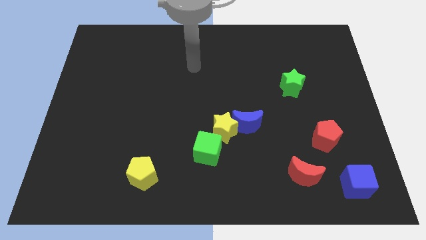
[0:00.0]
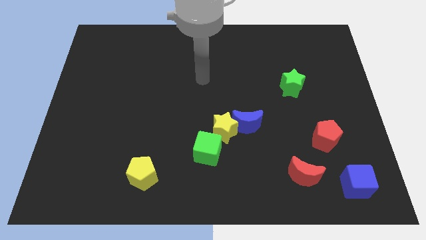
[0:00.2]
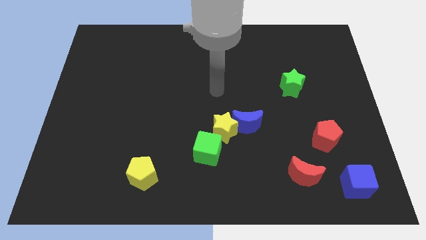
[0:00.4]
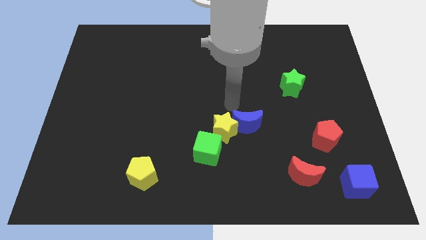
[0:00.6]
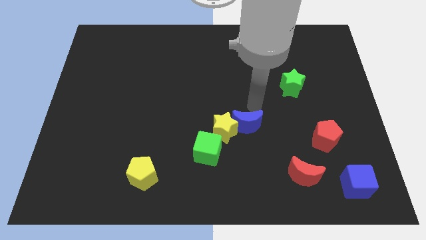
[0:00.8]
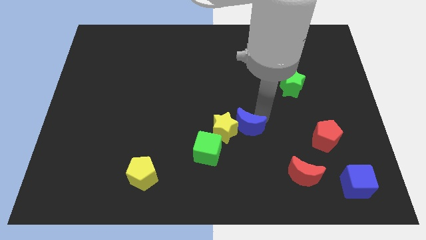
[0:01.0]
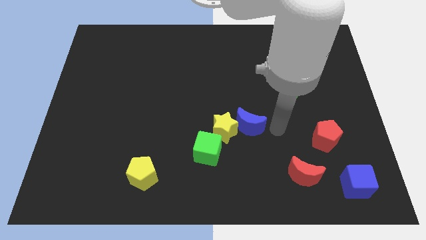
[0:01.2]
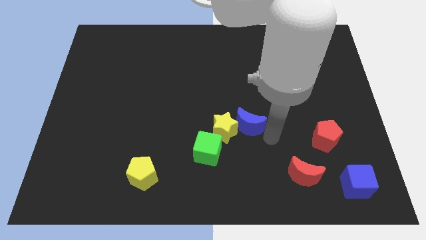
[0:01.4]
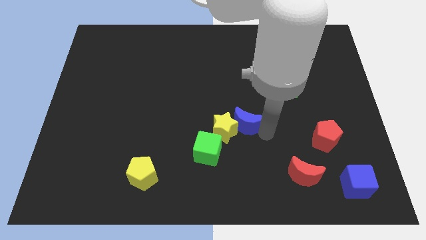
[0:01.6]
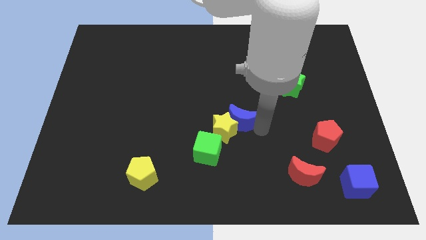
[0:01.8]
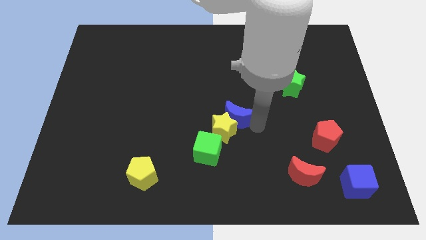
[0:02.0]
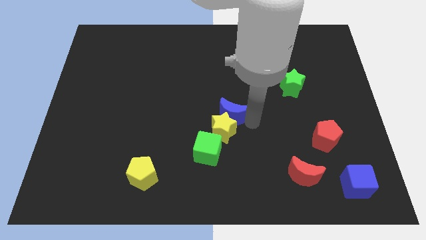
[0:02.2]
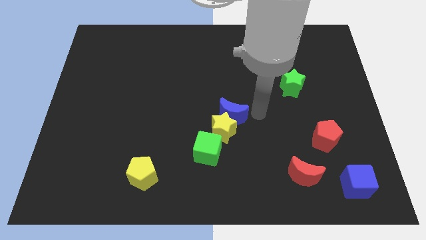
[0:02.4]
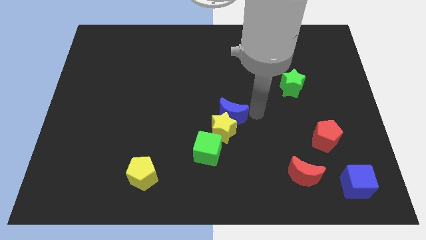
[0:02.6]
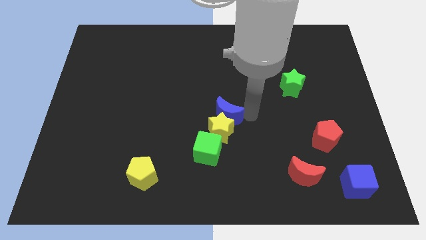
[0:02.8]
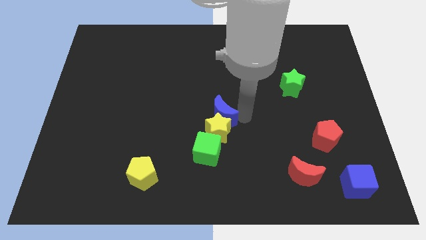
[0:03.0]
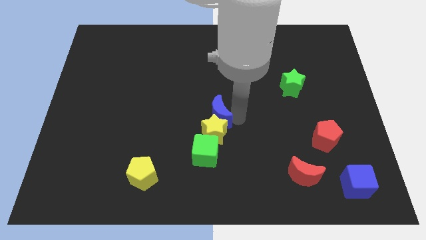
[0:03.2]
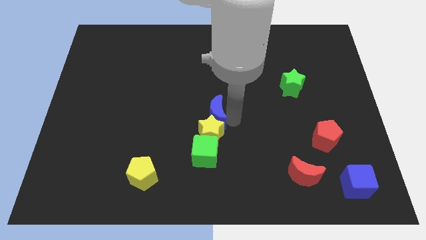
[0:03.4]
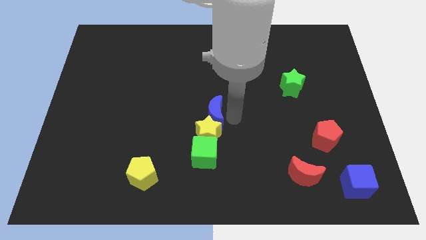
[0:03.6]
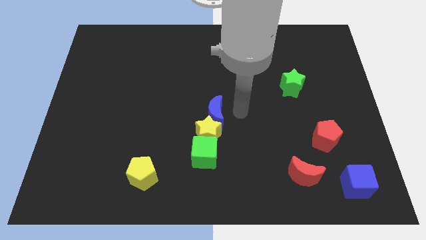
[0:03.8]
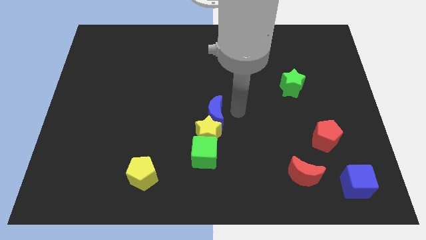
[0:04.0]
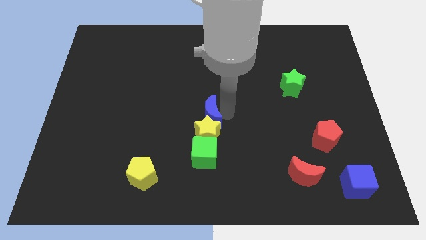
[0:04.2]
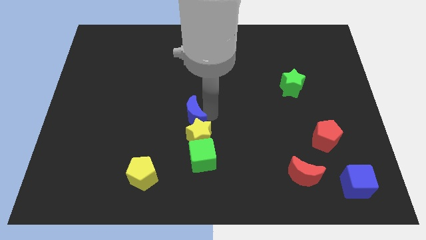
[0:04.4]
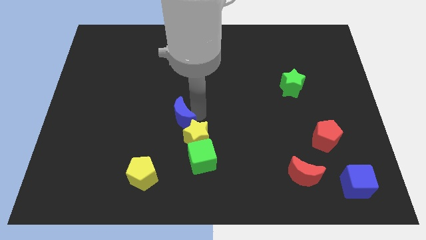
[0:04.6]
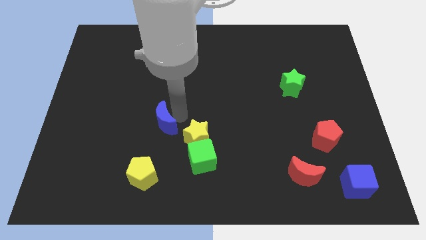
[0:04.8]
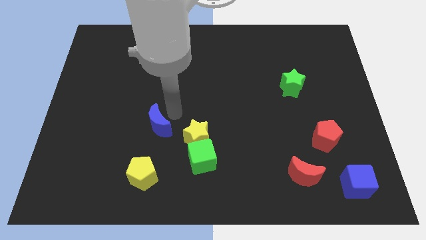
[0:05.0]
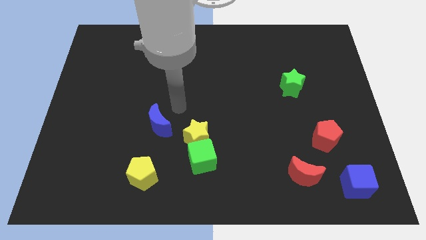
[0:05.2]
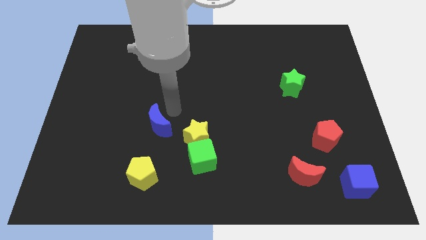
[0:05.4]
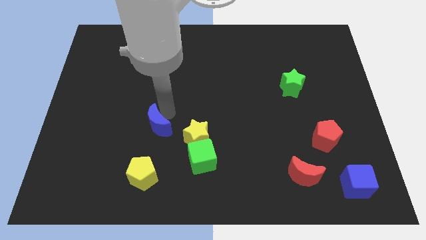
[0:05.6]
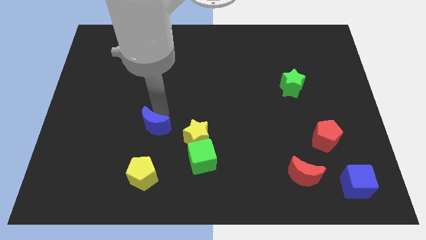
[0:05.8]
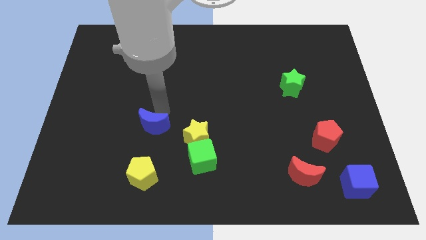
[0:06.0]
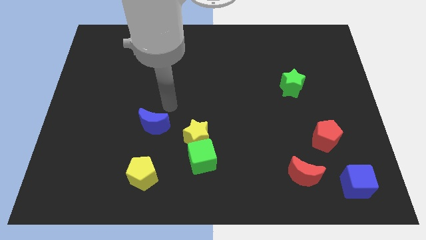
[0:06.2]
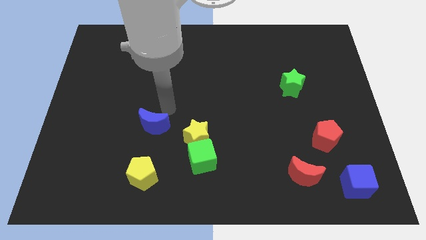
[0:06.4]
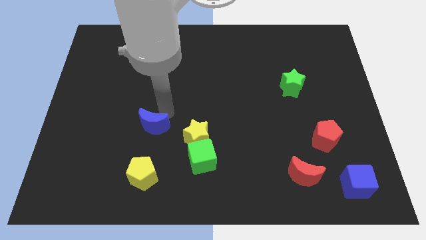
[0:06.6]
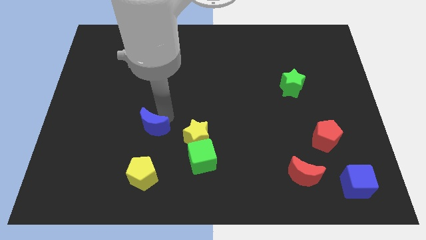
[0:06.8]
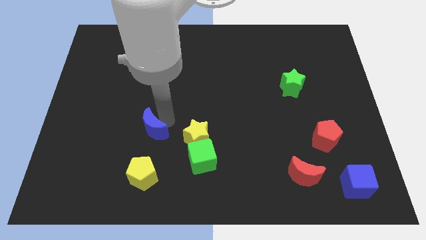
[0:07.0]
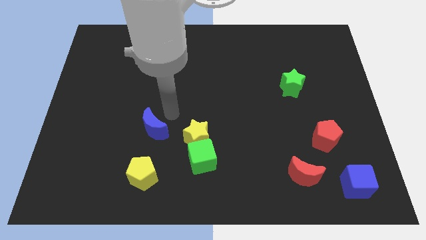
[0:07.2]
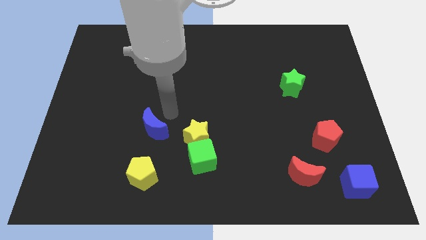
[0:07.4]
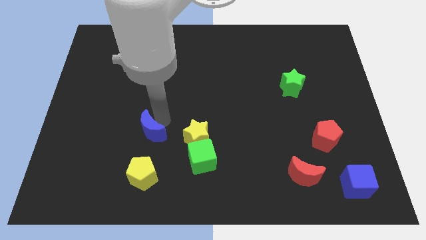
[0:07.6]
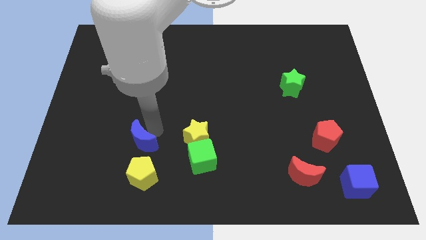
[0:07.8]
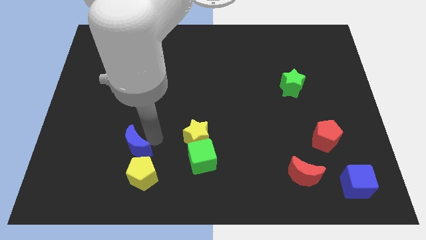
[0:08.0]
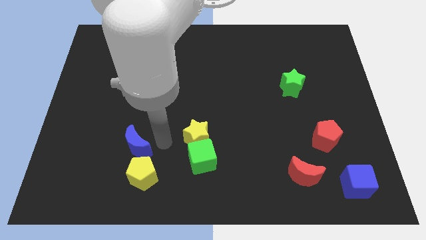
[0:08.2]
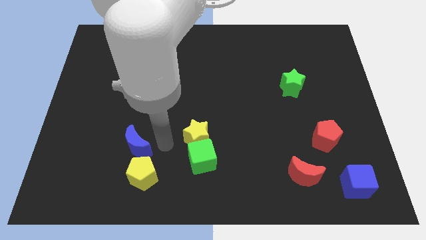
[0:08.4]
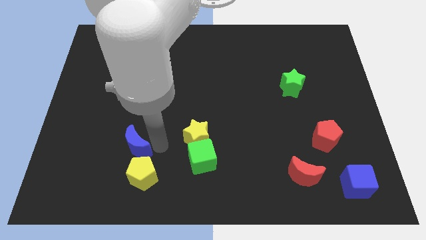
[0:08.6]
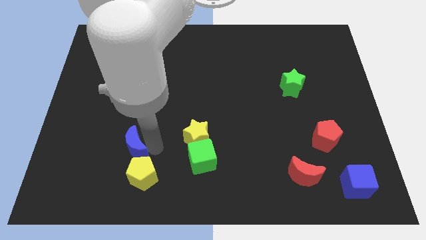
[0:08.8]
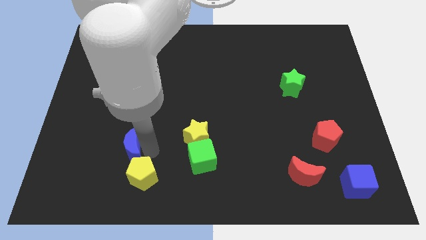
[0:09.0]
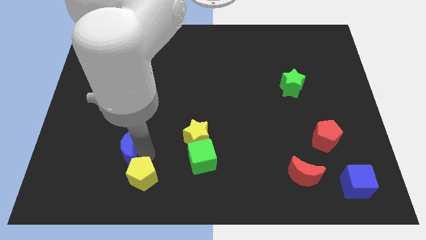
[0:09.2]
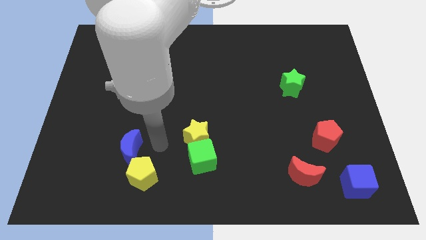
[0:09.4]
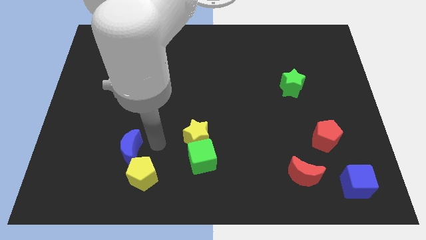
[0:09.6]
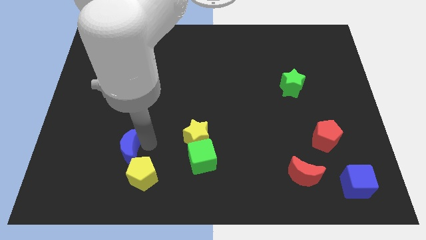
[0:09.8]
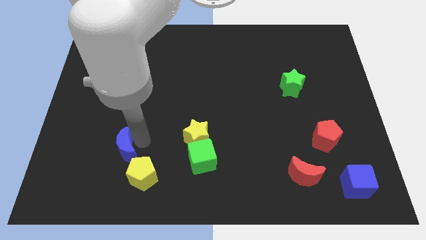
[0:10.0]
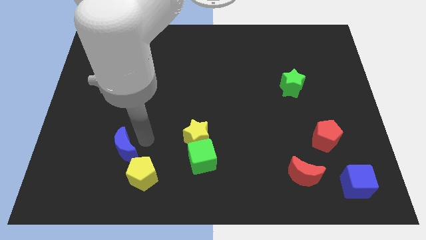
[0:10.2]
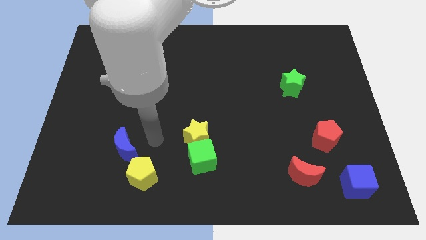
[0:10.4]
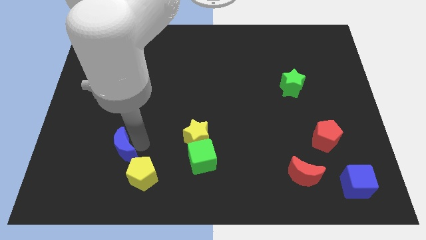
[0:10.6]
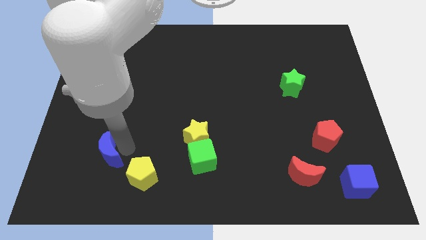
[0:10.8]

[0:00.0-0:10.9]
push the blue moon left of the yellow pentagon

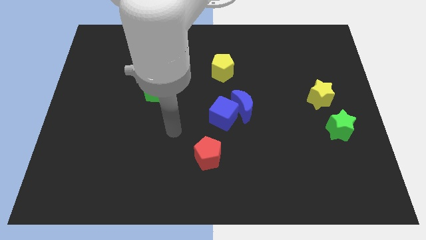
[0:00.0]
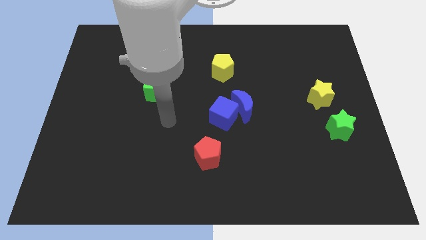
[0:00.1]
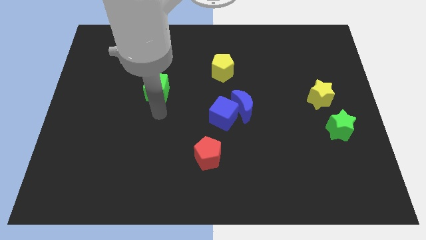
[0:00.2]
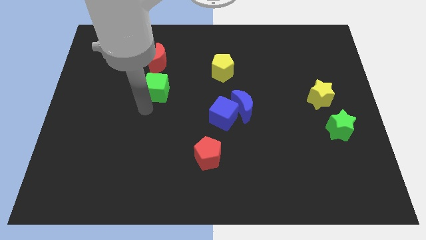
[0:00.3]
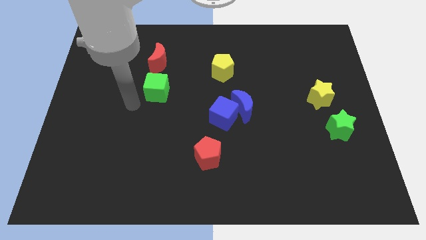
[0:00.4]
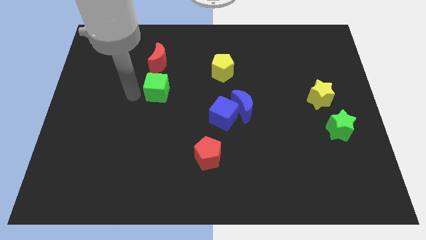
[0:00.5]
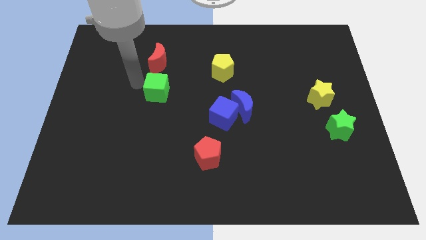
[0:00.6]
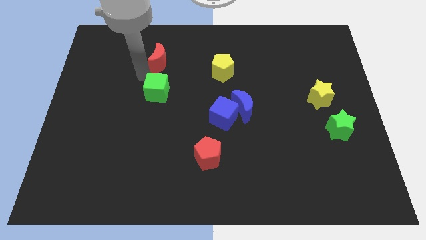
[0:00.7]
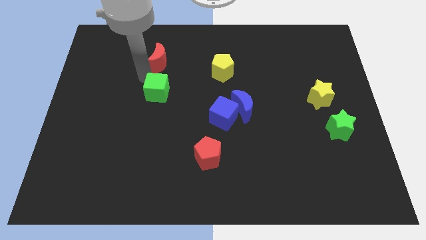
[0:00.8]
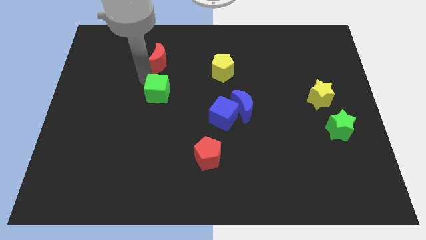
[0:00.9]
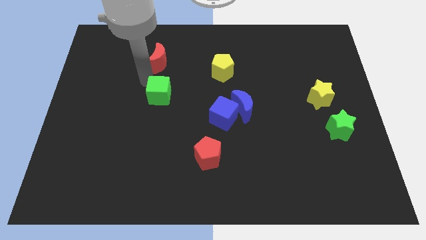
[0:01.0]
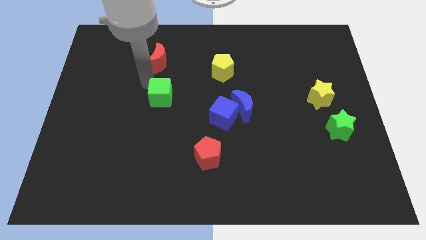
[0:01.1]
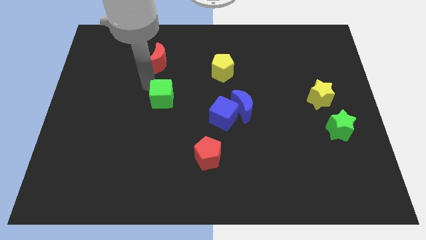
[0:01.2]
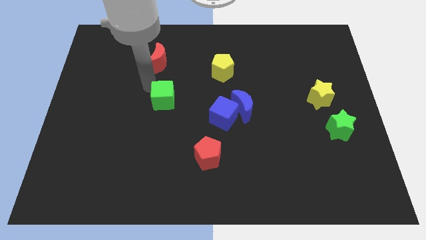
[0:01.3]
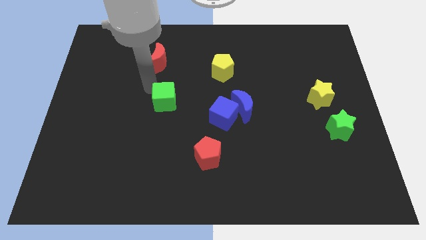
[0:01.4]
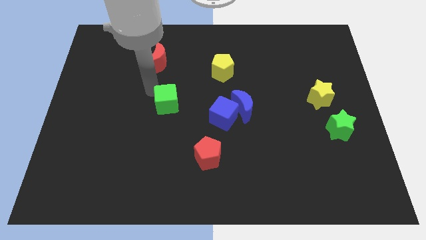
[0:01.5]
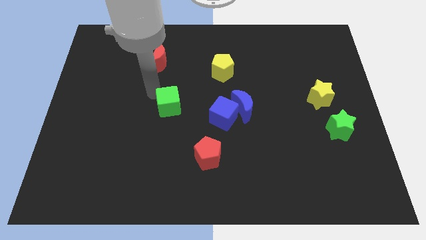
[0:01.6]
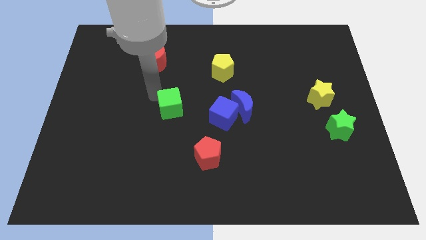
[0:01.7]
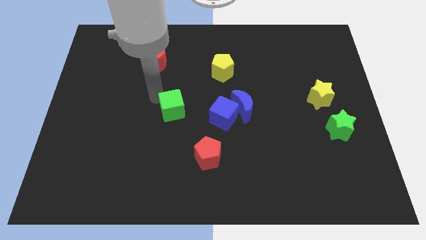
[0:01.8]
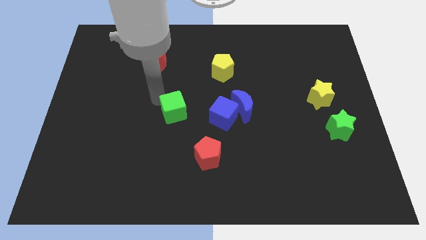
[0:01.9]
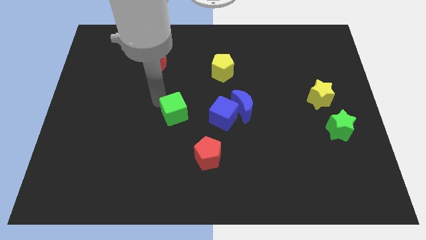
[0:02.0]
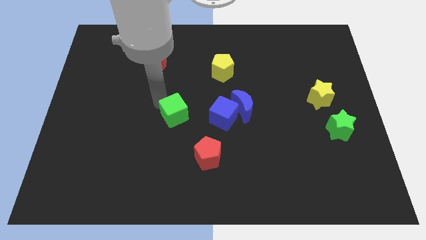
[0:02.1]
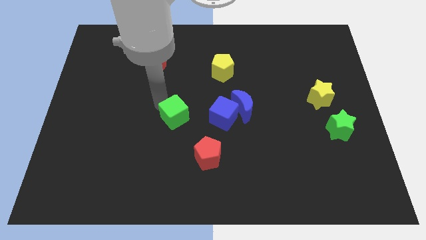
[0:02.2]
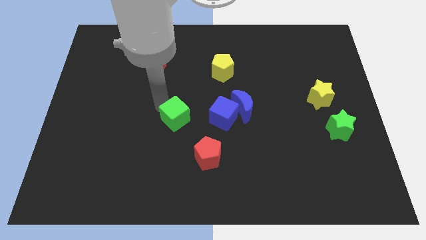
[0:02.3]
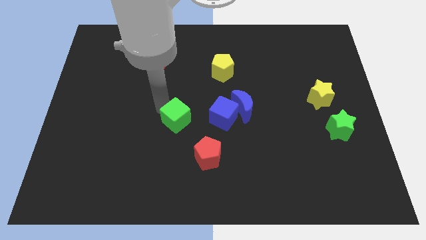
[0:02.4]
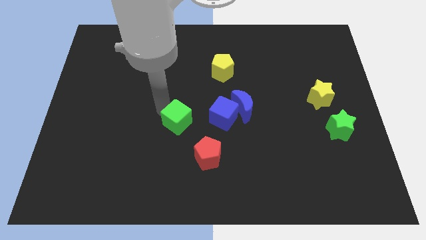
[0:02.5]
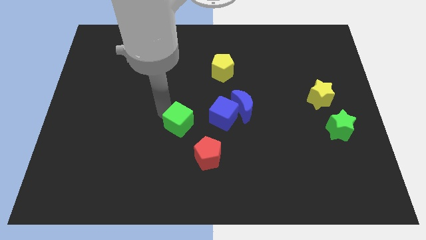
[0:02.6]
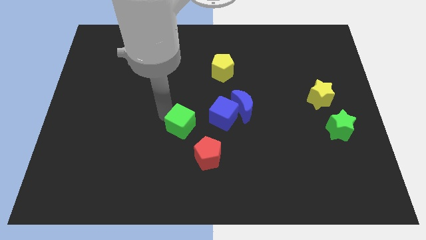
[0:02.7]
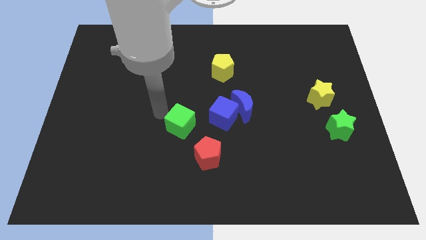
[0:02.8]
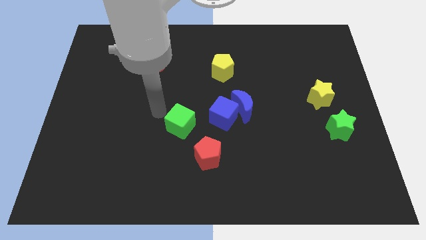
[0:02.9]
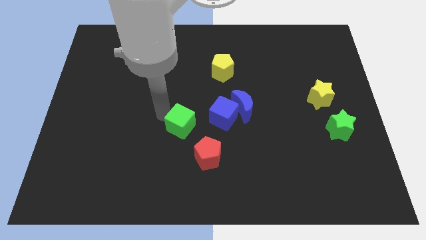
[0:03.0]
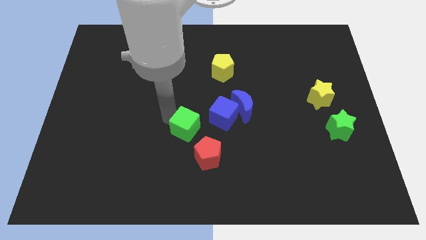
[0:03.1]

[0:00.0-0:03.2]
put the green cube to the bottom left side of the blue cube
